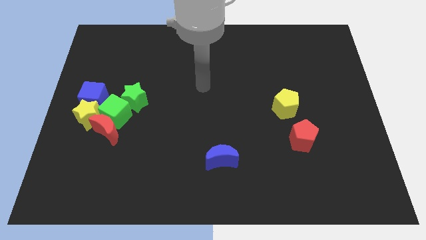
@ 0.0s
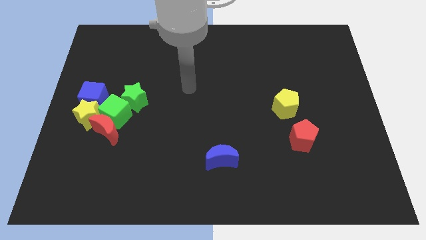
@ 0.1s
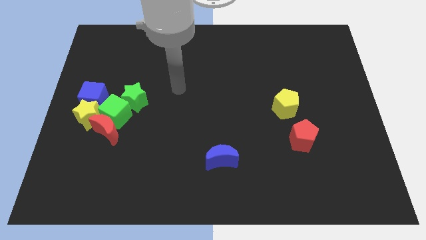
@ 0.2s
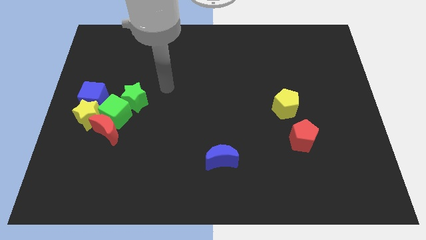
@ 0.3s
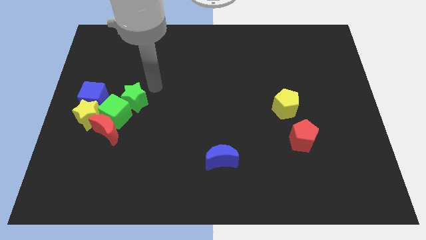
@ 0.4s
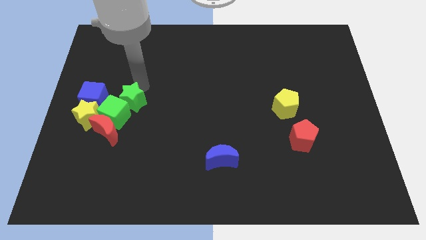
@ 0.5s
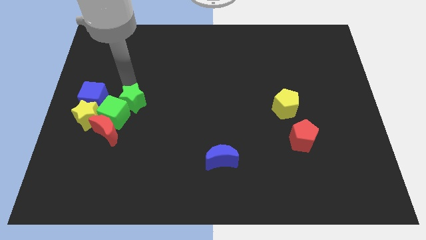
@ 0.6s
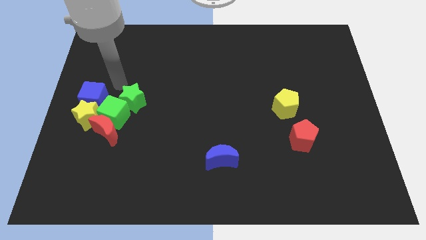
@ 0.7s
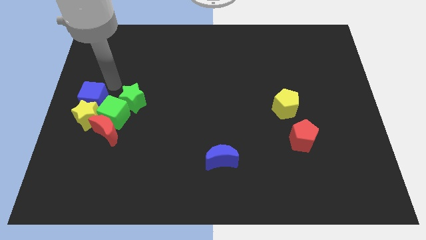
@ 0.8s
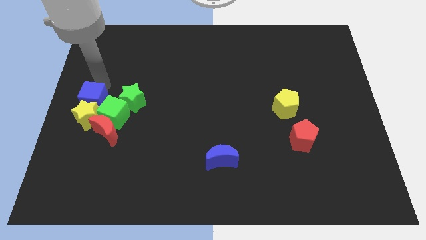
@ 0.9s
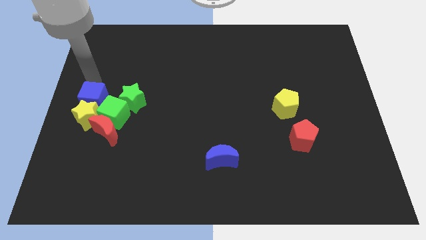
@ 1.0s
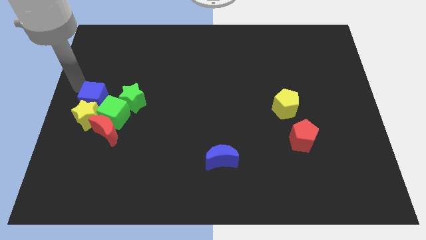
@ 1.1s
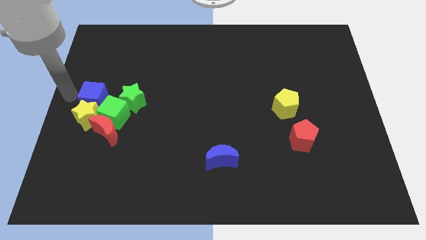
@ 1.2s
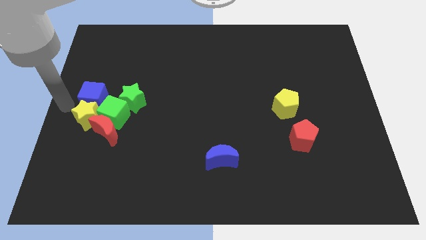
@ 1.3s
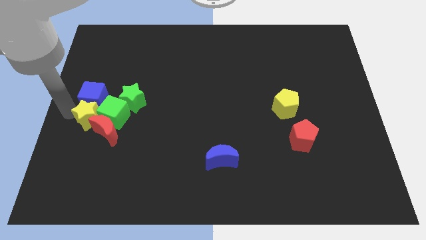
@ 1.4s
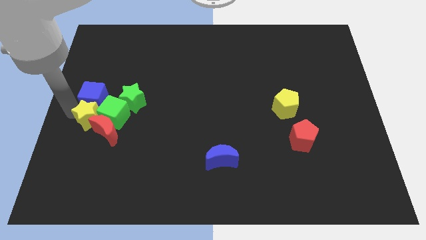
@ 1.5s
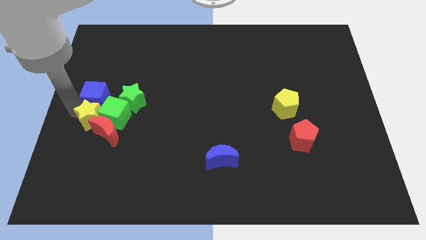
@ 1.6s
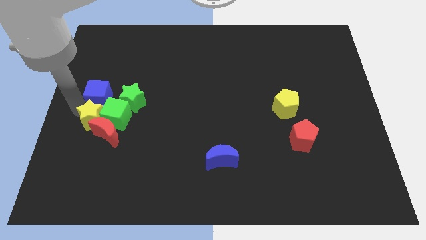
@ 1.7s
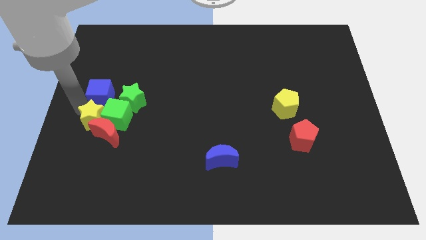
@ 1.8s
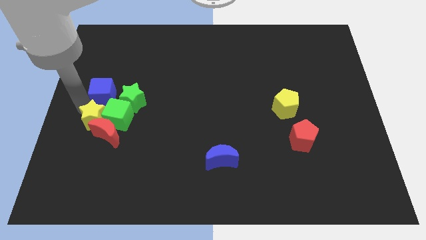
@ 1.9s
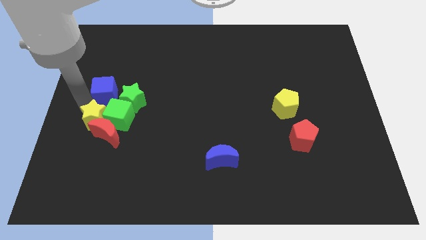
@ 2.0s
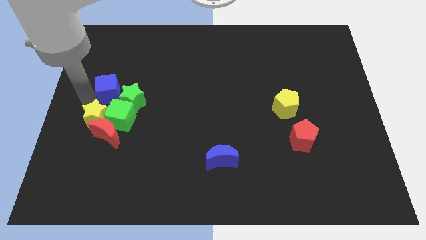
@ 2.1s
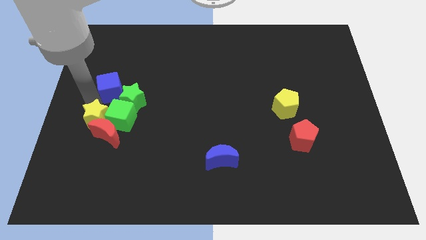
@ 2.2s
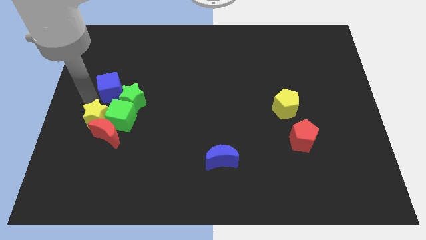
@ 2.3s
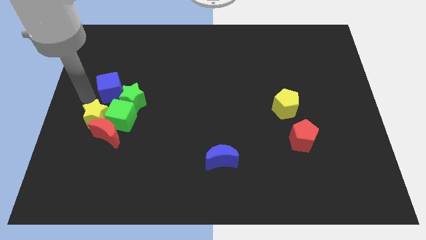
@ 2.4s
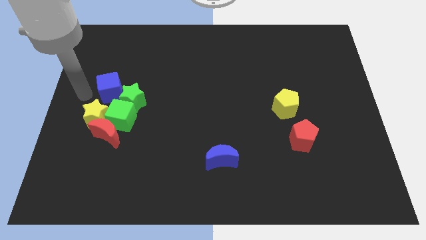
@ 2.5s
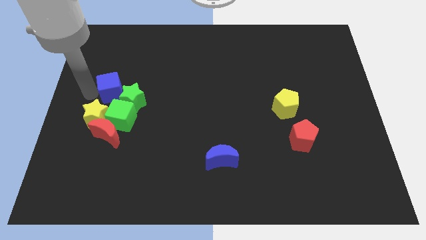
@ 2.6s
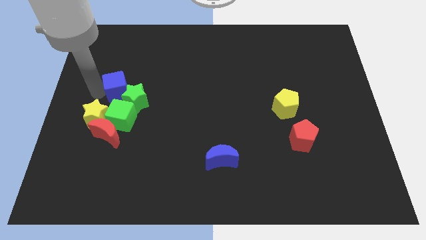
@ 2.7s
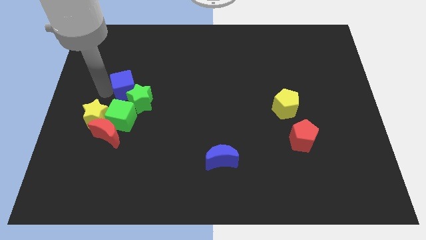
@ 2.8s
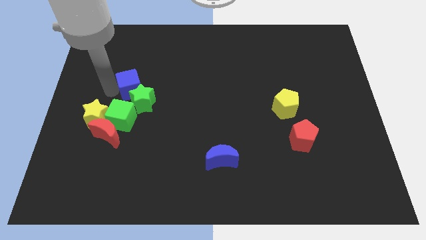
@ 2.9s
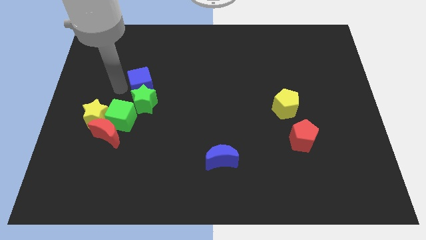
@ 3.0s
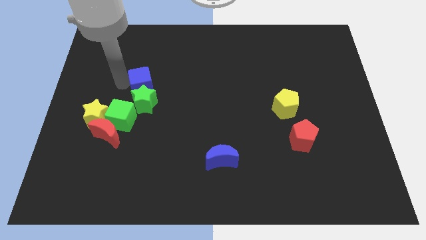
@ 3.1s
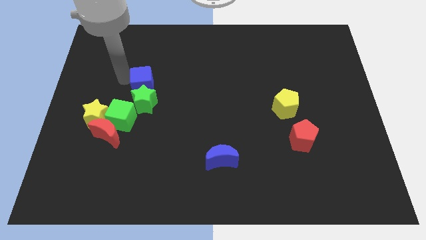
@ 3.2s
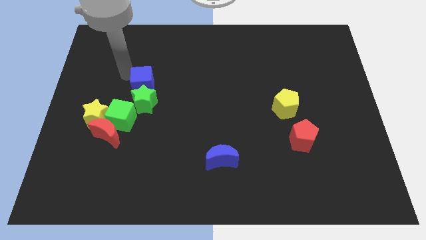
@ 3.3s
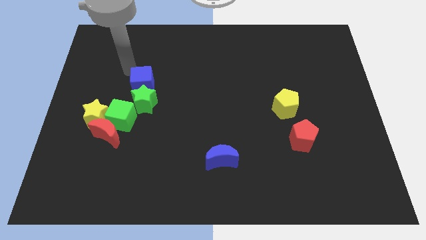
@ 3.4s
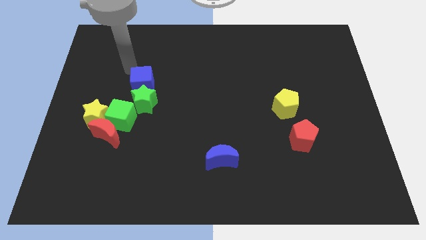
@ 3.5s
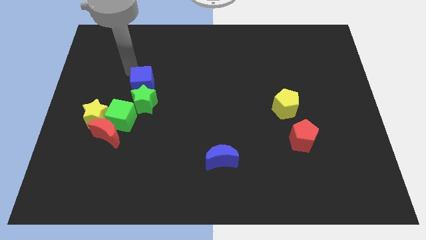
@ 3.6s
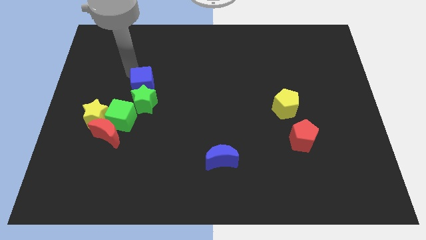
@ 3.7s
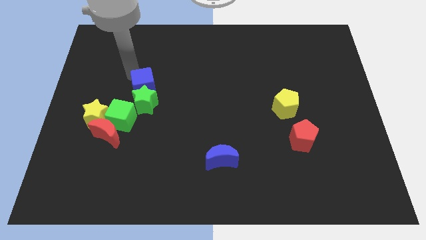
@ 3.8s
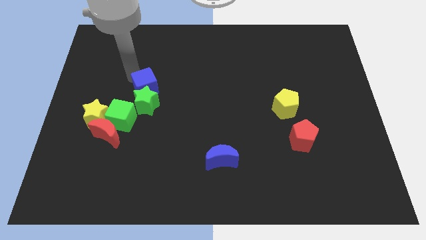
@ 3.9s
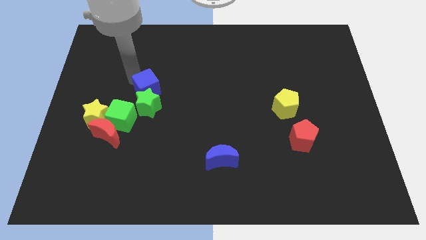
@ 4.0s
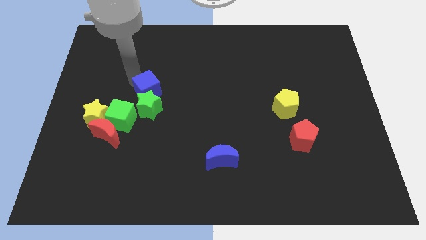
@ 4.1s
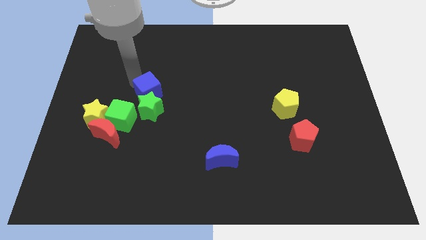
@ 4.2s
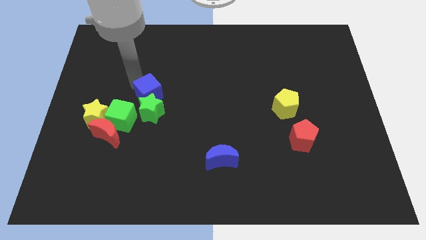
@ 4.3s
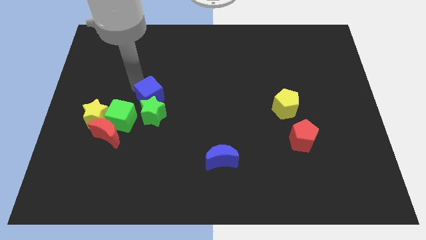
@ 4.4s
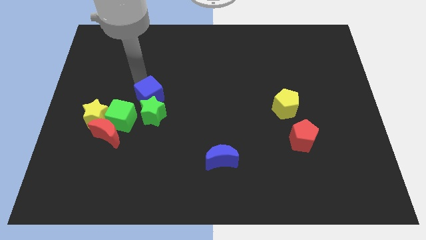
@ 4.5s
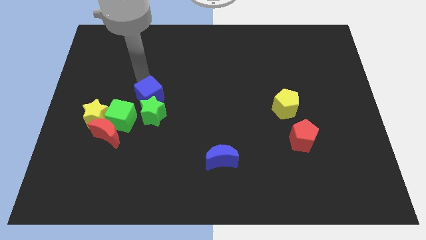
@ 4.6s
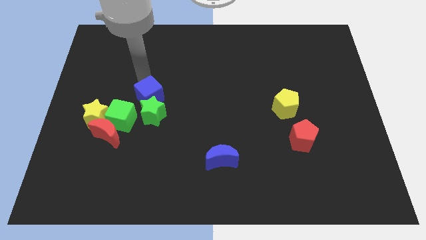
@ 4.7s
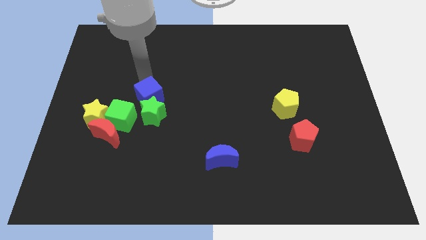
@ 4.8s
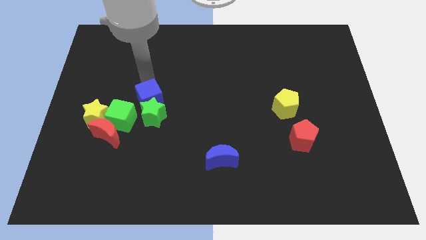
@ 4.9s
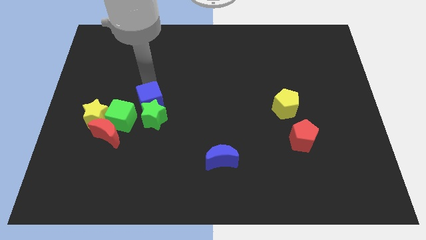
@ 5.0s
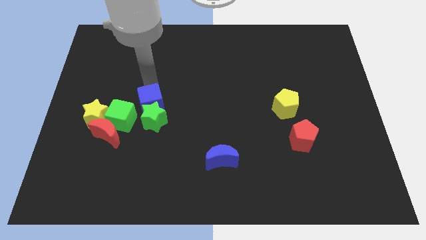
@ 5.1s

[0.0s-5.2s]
slightly move the blue cube downwards and to the right diagonally

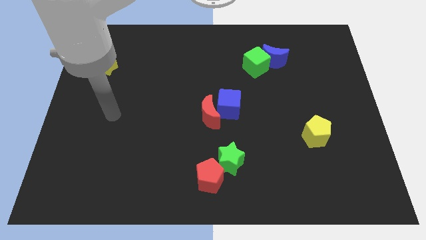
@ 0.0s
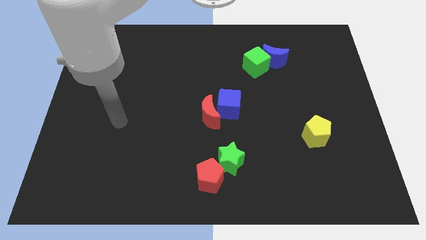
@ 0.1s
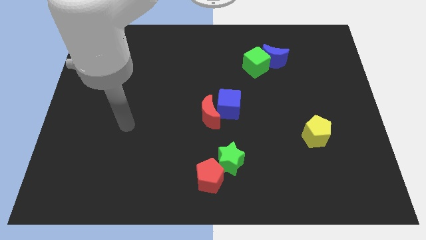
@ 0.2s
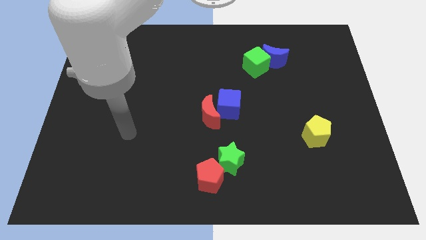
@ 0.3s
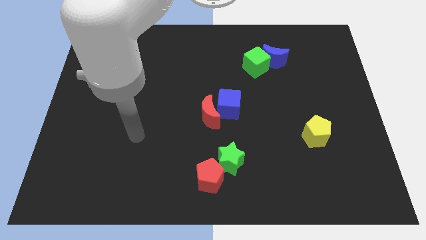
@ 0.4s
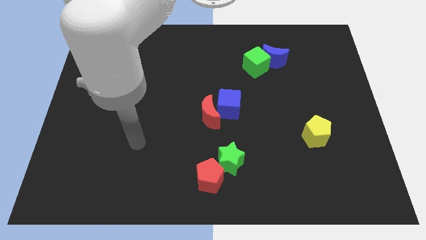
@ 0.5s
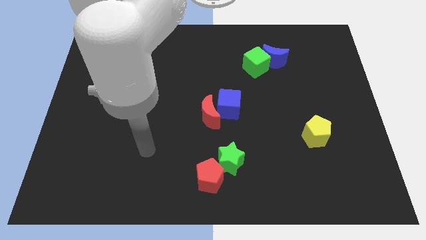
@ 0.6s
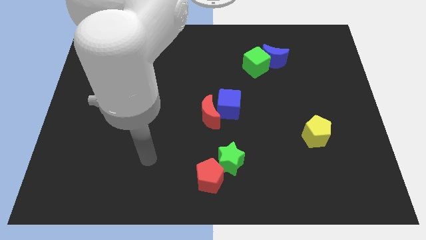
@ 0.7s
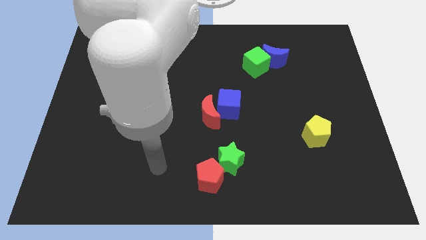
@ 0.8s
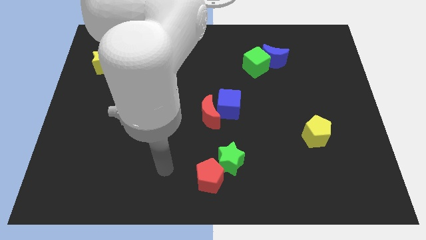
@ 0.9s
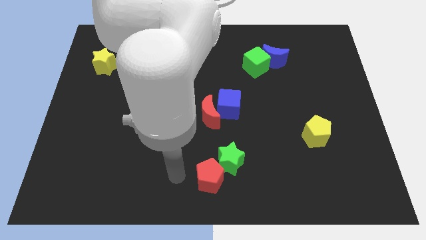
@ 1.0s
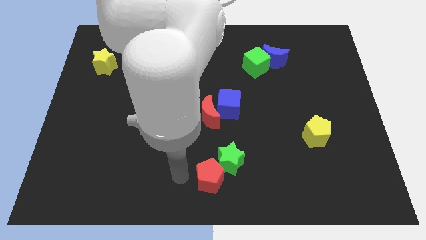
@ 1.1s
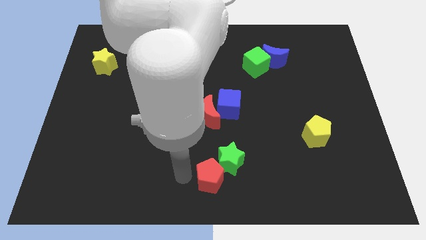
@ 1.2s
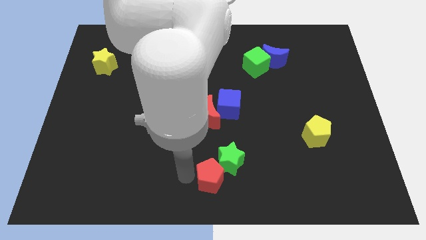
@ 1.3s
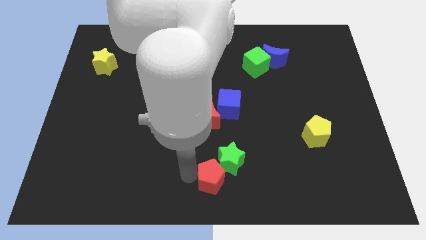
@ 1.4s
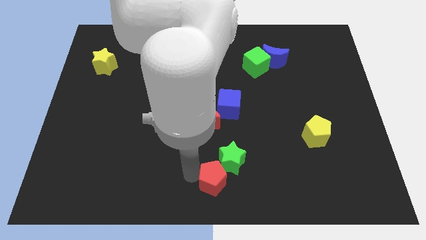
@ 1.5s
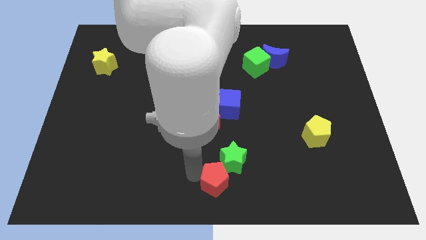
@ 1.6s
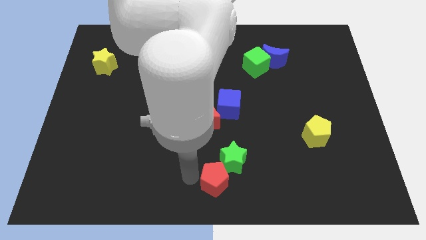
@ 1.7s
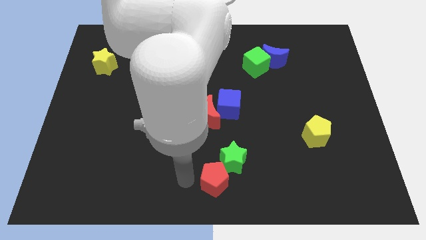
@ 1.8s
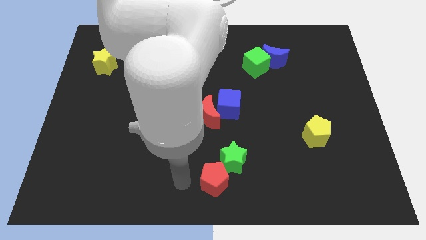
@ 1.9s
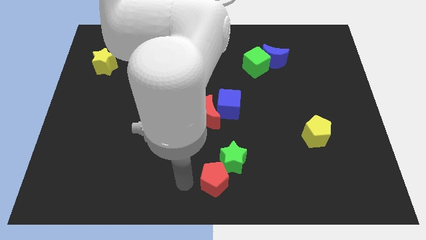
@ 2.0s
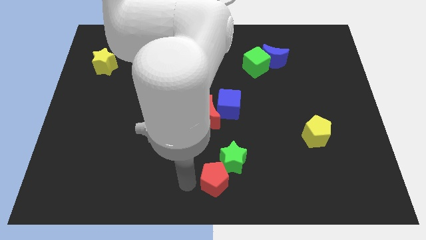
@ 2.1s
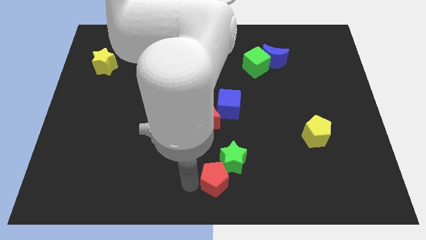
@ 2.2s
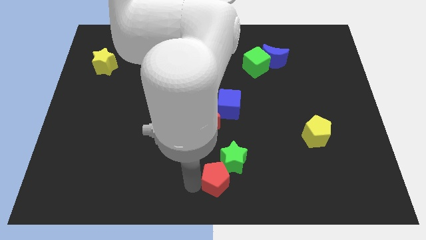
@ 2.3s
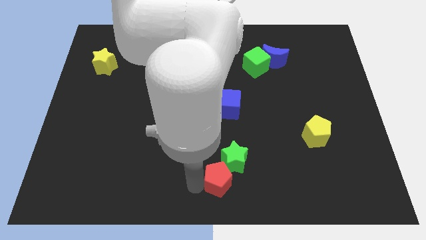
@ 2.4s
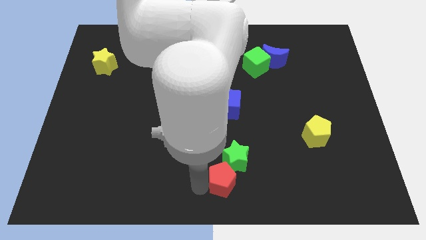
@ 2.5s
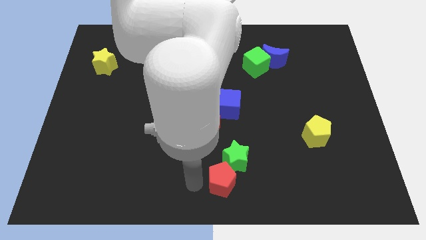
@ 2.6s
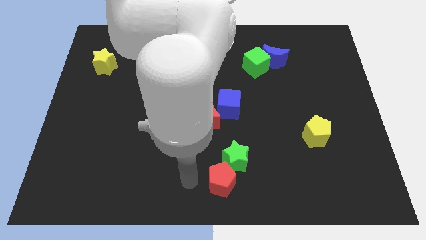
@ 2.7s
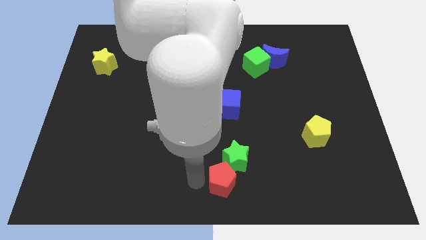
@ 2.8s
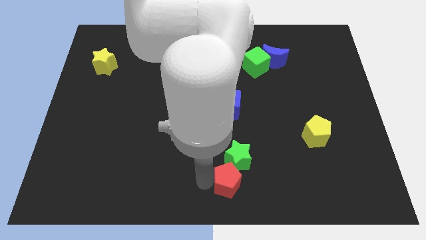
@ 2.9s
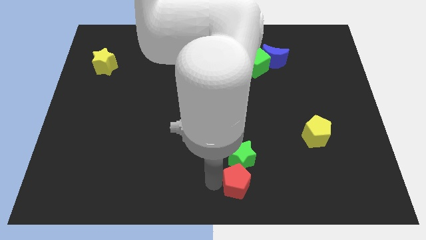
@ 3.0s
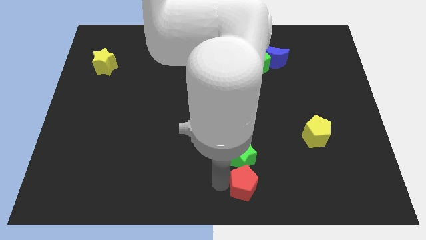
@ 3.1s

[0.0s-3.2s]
slide the red pentagon to the right slightly
